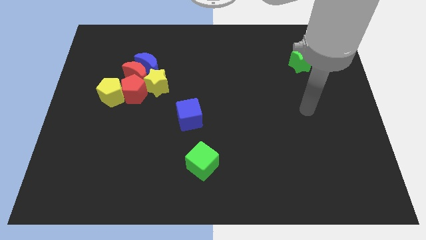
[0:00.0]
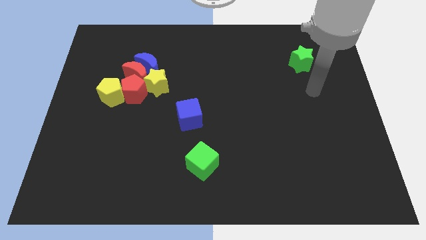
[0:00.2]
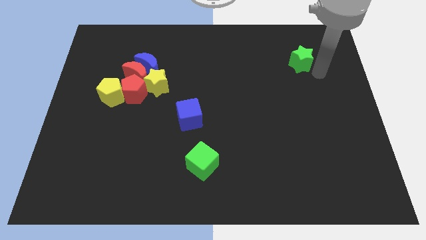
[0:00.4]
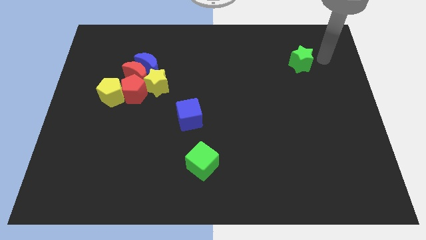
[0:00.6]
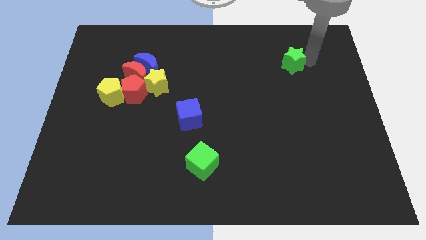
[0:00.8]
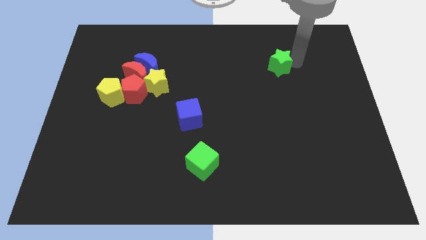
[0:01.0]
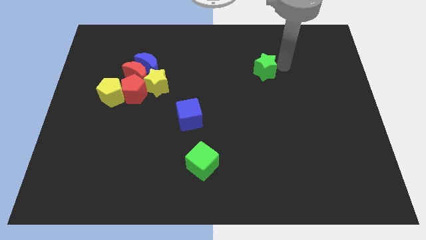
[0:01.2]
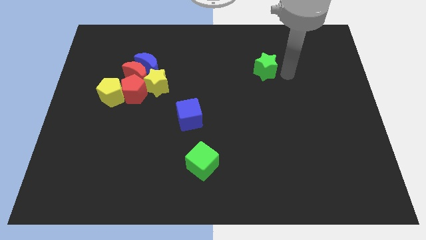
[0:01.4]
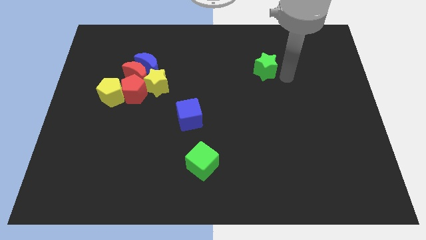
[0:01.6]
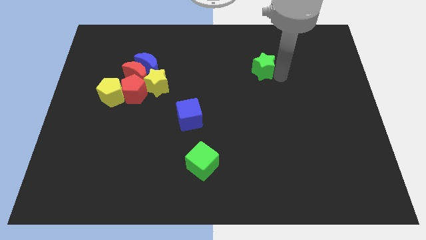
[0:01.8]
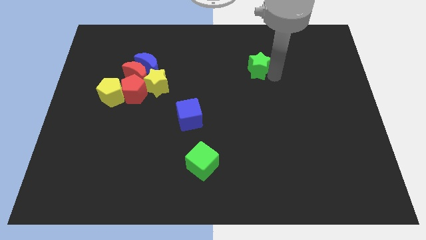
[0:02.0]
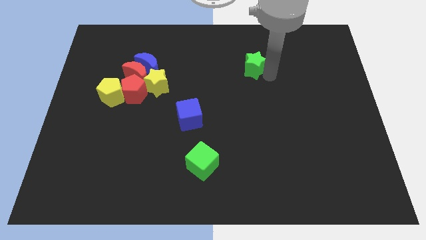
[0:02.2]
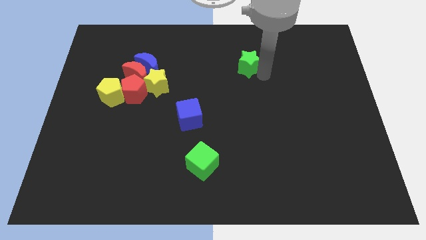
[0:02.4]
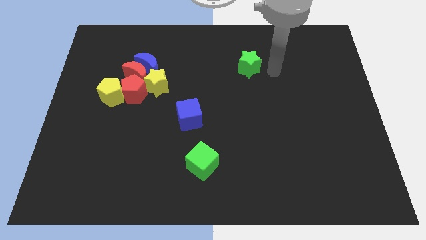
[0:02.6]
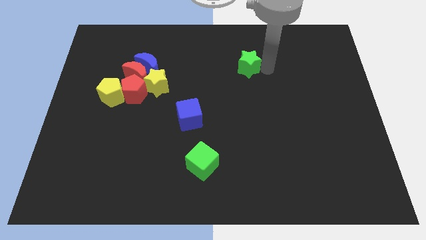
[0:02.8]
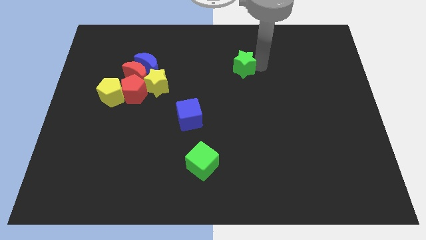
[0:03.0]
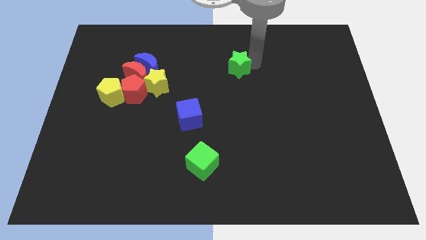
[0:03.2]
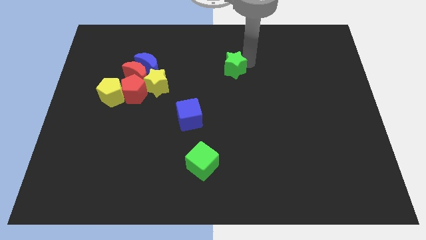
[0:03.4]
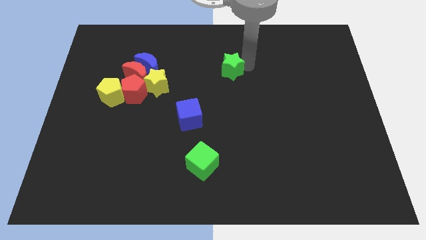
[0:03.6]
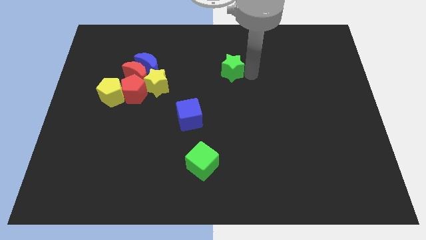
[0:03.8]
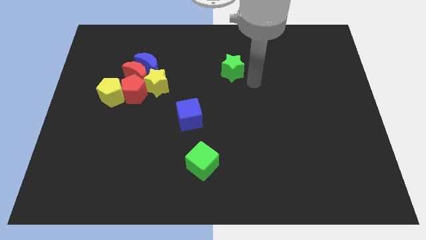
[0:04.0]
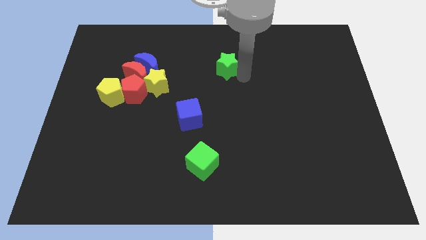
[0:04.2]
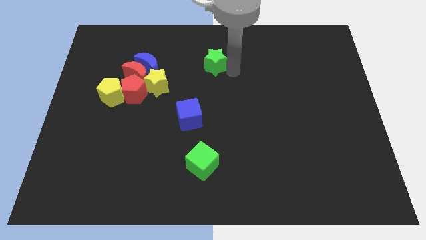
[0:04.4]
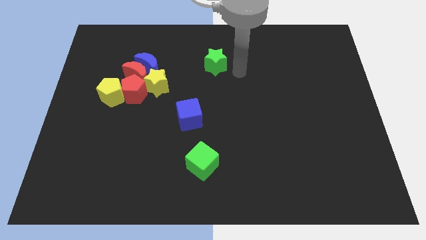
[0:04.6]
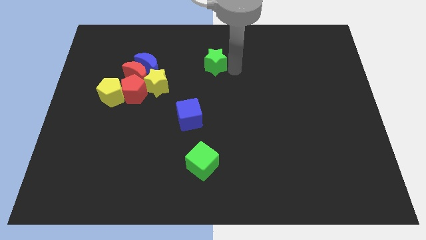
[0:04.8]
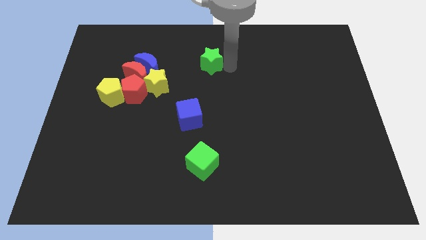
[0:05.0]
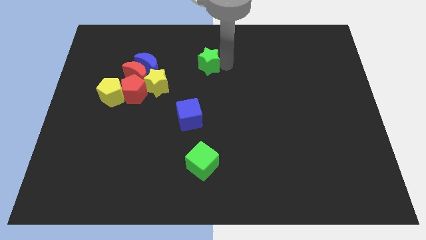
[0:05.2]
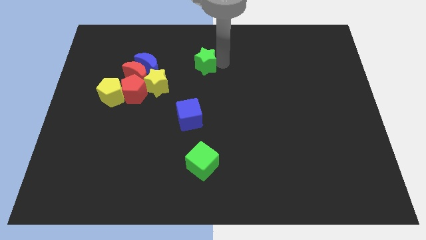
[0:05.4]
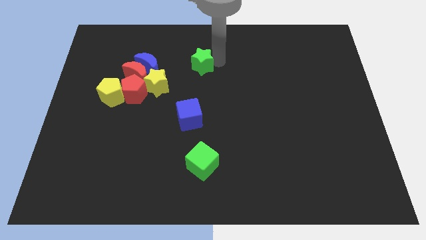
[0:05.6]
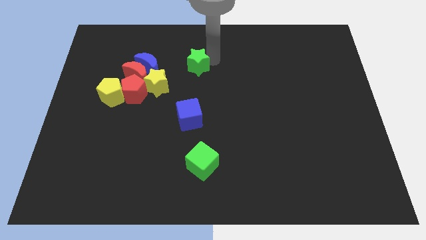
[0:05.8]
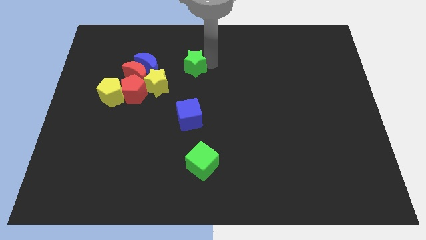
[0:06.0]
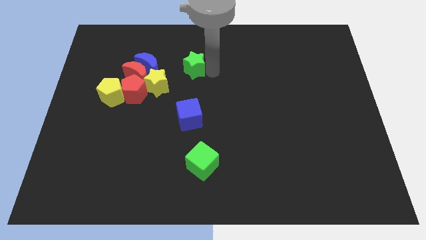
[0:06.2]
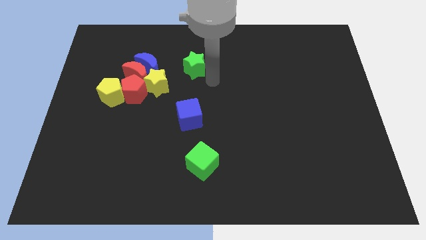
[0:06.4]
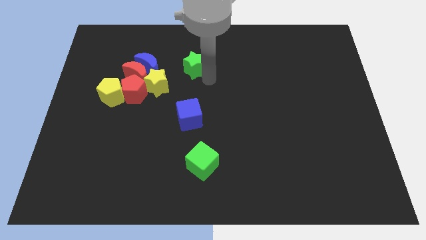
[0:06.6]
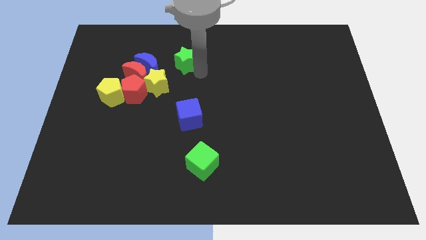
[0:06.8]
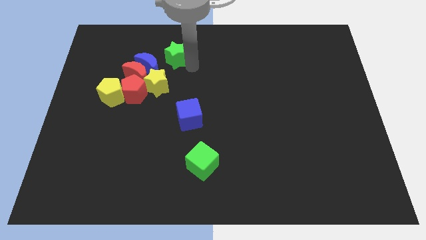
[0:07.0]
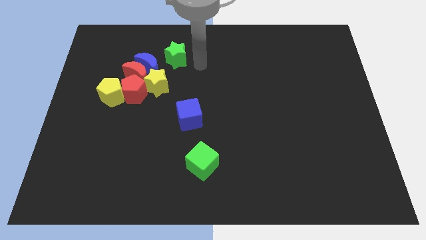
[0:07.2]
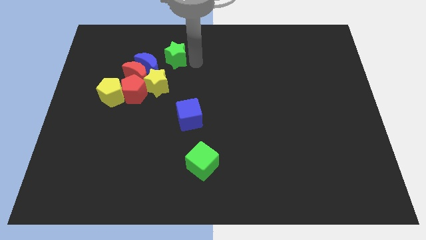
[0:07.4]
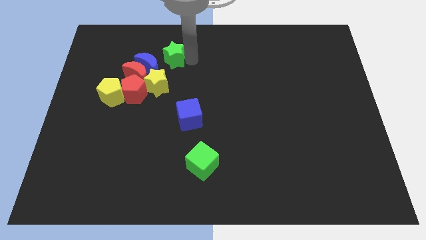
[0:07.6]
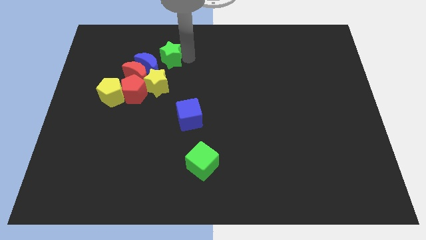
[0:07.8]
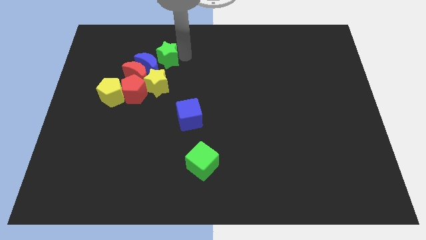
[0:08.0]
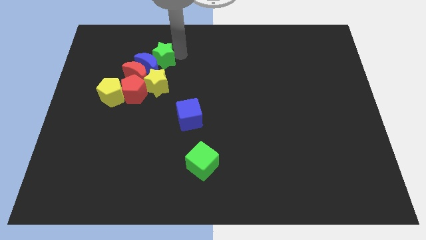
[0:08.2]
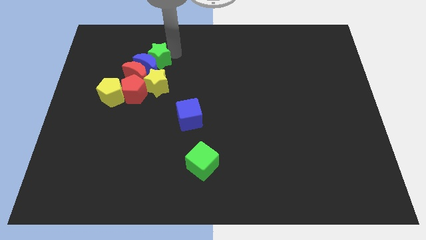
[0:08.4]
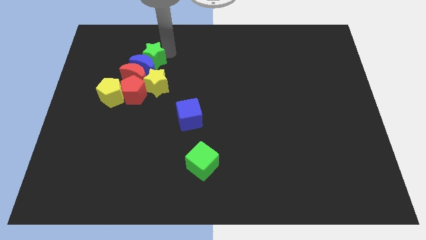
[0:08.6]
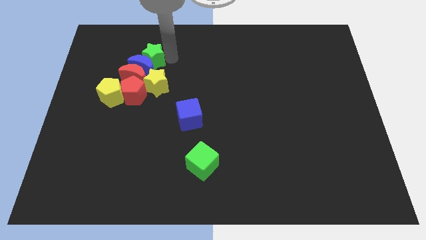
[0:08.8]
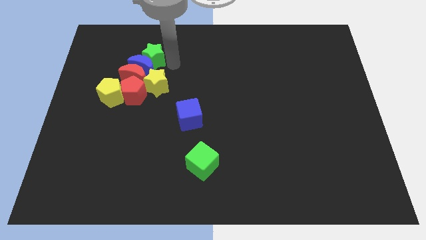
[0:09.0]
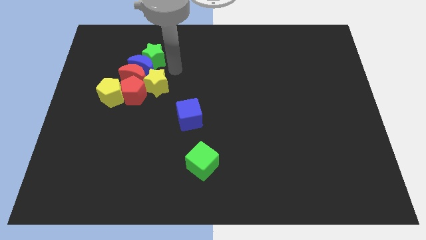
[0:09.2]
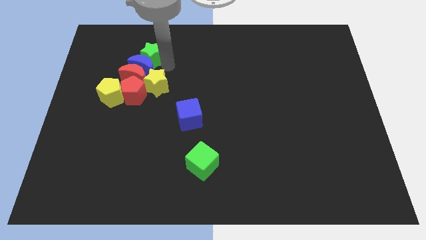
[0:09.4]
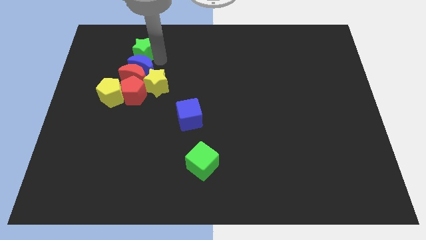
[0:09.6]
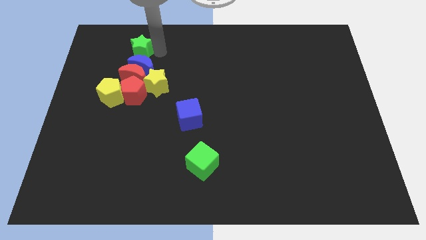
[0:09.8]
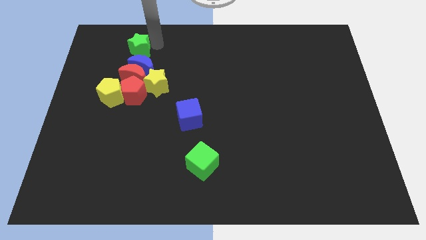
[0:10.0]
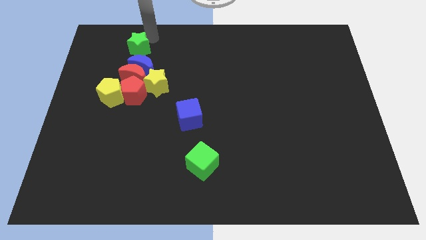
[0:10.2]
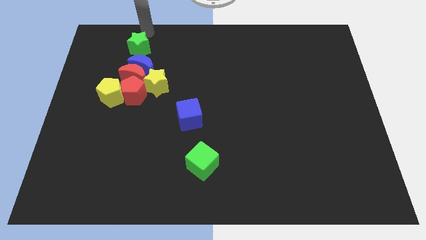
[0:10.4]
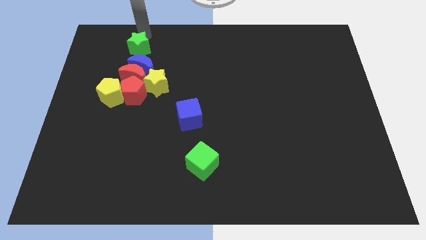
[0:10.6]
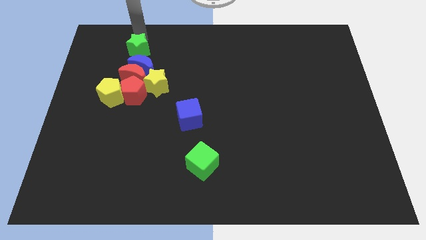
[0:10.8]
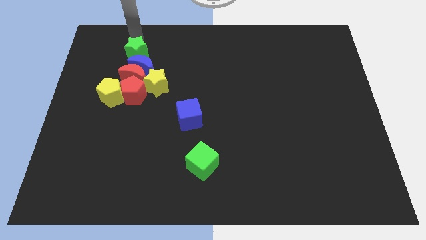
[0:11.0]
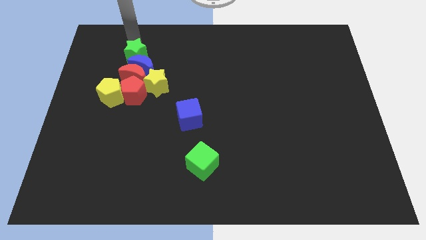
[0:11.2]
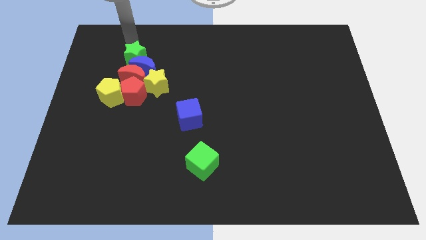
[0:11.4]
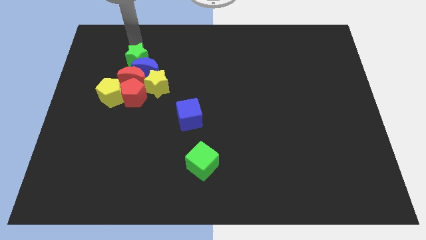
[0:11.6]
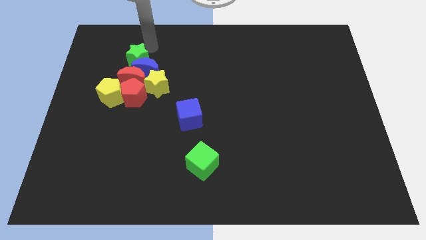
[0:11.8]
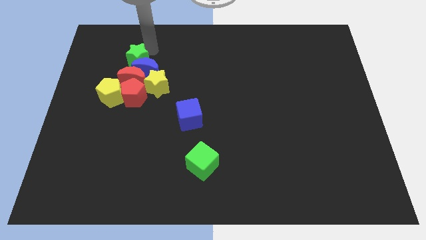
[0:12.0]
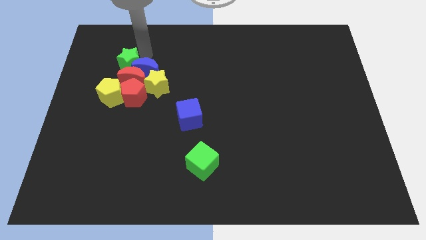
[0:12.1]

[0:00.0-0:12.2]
move the green star next to the red moon

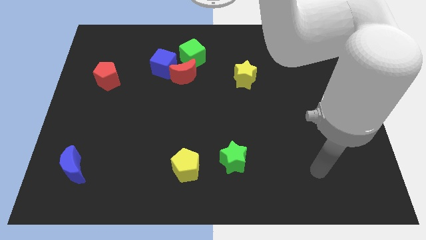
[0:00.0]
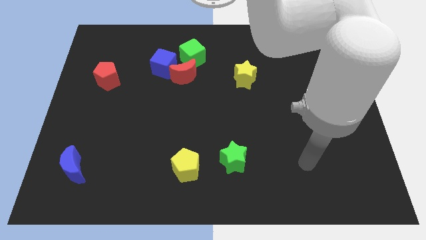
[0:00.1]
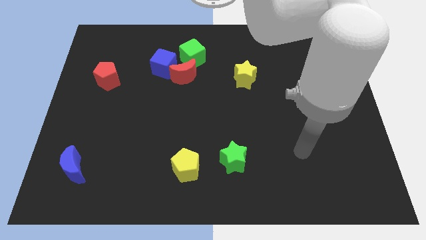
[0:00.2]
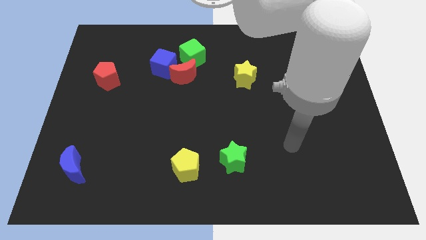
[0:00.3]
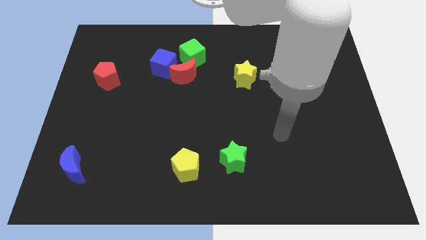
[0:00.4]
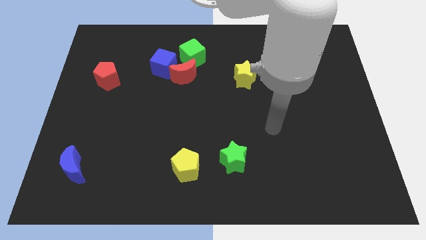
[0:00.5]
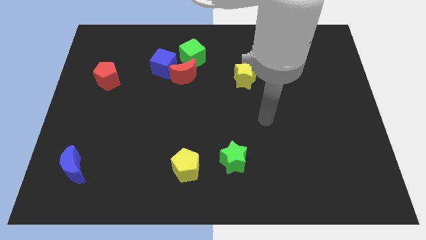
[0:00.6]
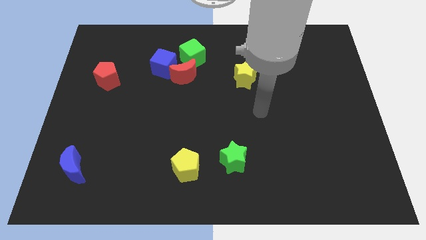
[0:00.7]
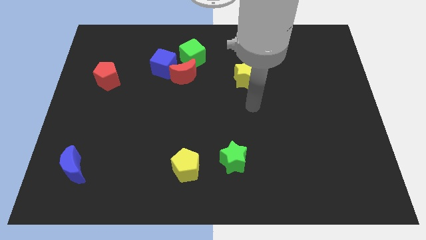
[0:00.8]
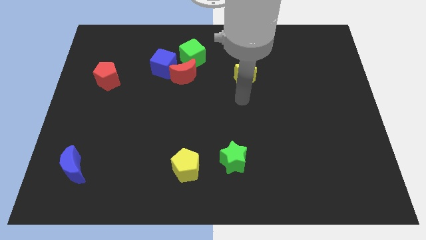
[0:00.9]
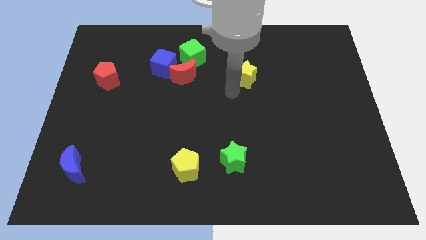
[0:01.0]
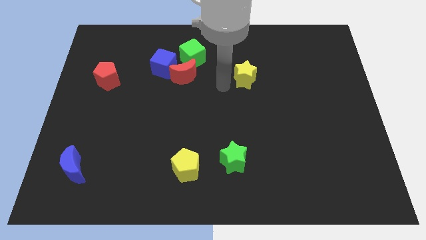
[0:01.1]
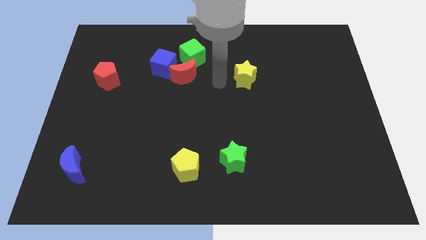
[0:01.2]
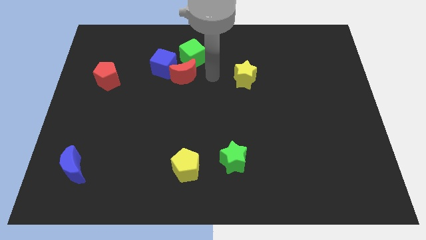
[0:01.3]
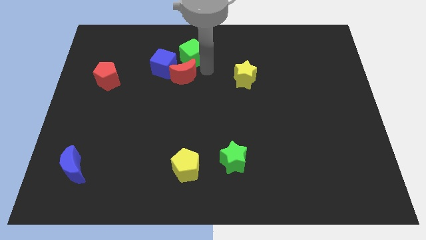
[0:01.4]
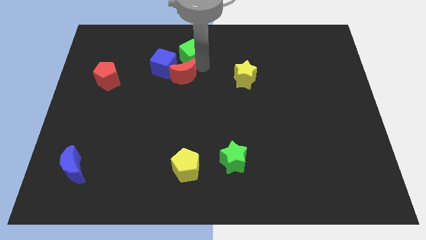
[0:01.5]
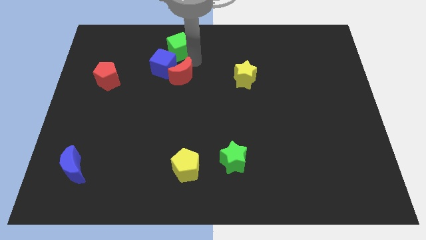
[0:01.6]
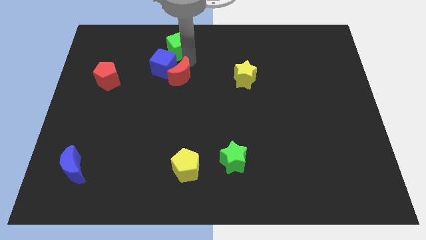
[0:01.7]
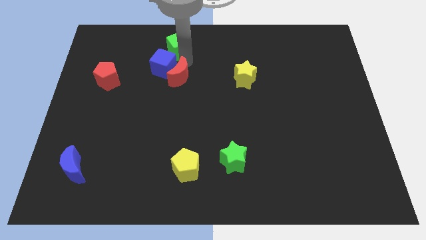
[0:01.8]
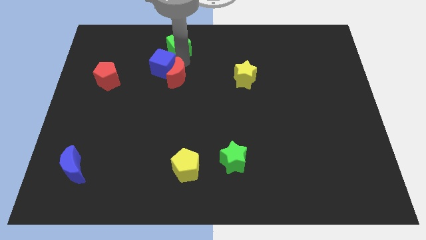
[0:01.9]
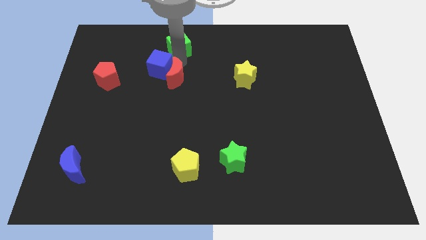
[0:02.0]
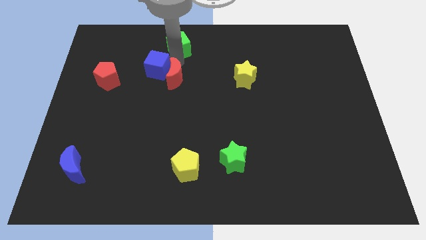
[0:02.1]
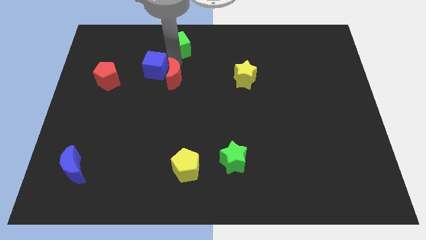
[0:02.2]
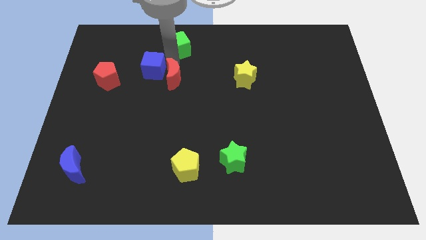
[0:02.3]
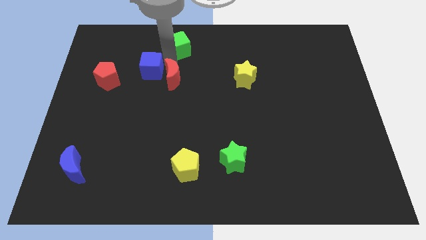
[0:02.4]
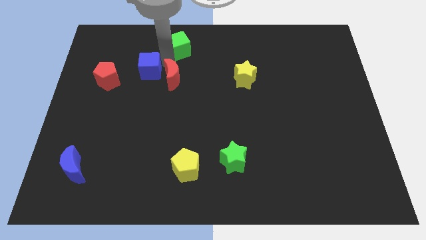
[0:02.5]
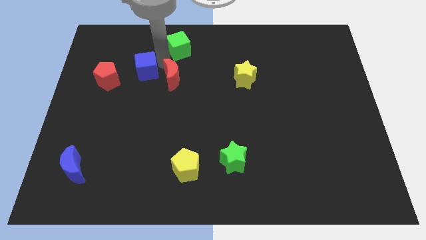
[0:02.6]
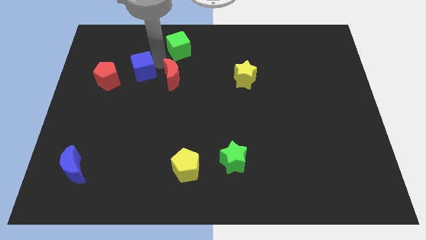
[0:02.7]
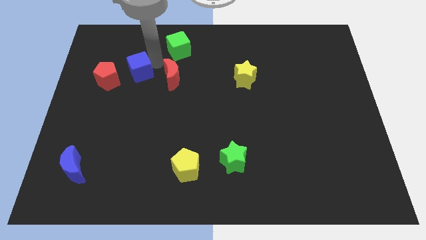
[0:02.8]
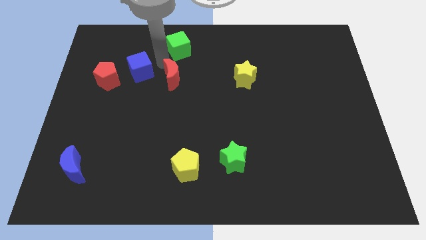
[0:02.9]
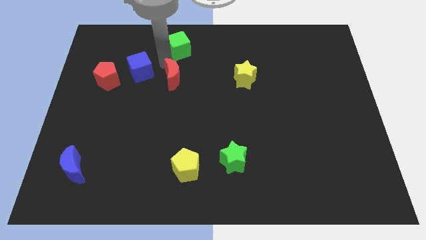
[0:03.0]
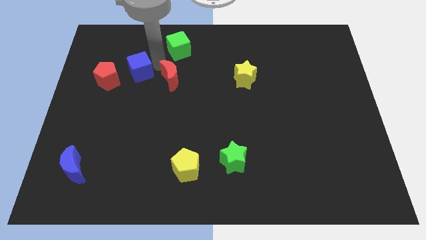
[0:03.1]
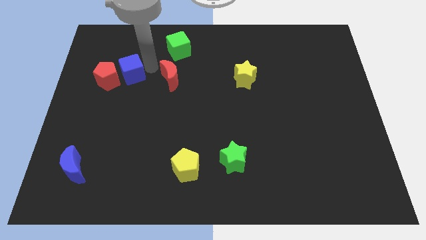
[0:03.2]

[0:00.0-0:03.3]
slide the blue cube to the red pentagon
